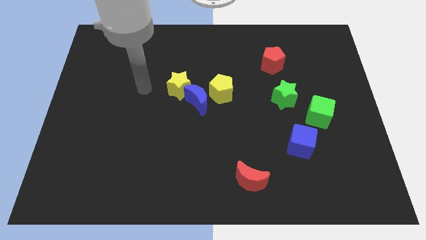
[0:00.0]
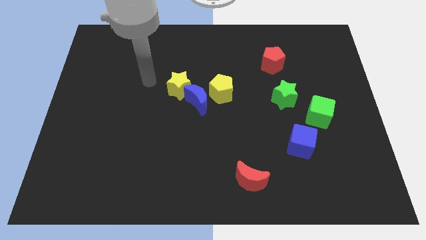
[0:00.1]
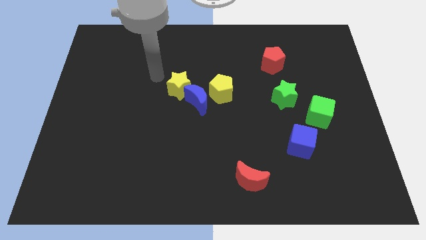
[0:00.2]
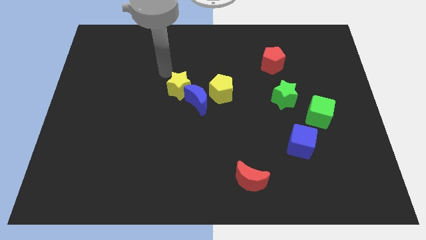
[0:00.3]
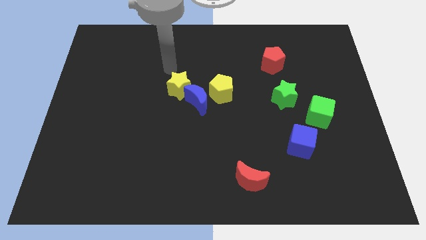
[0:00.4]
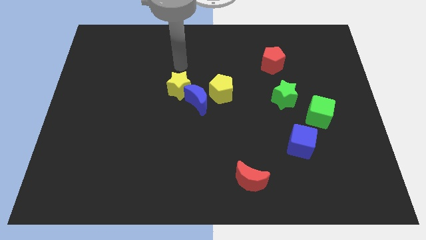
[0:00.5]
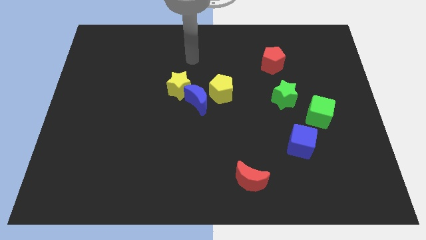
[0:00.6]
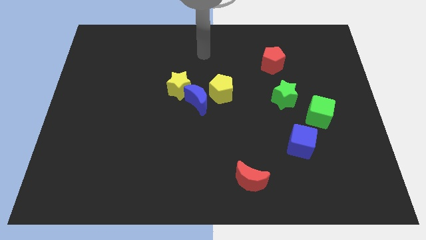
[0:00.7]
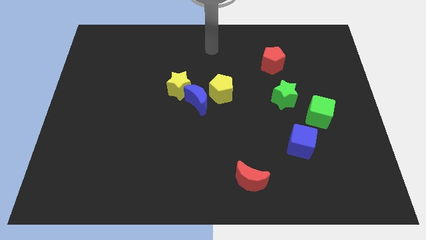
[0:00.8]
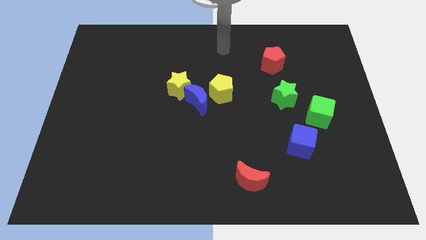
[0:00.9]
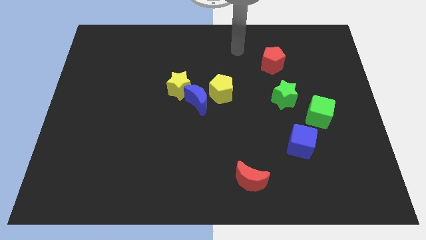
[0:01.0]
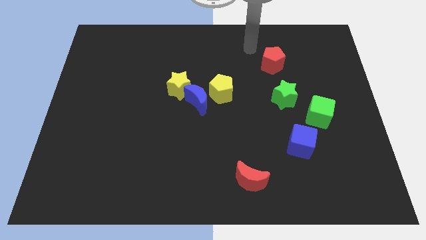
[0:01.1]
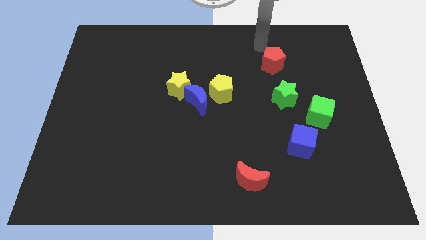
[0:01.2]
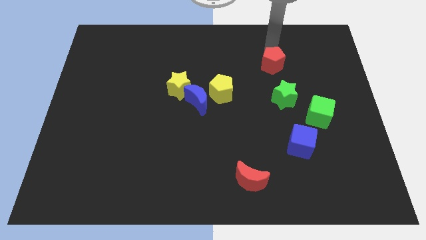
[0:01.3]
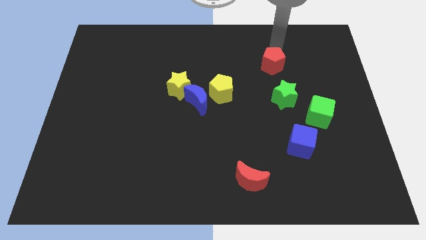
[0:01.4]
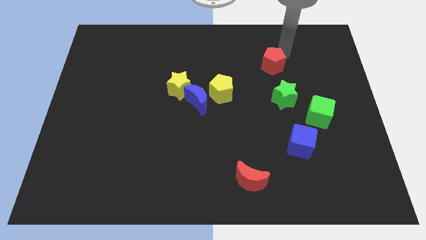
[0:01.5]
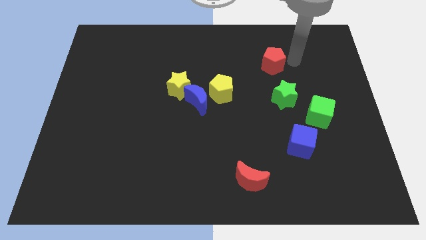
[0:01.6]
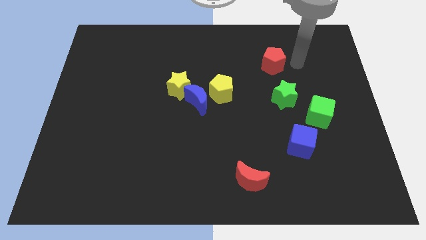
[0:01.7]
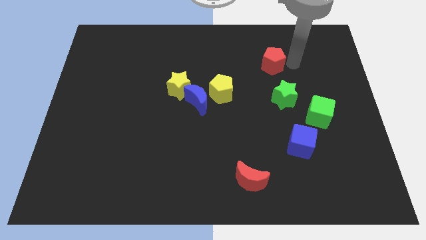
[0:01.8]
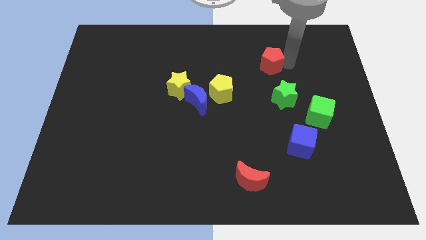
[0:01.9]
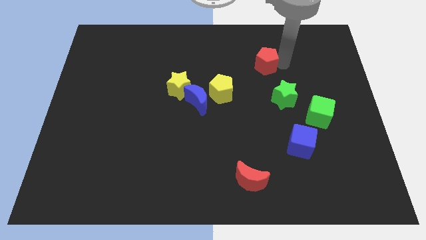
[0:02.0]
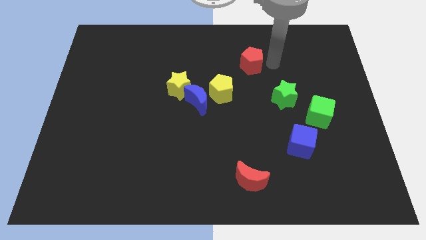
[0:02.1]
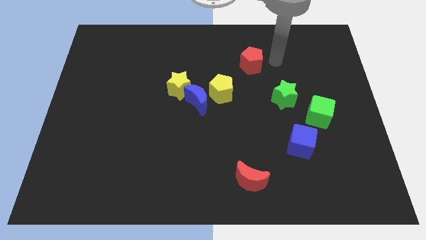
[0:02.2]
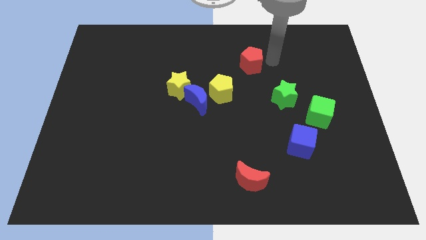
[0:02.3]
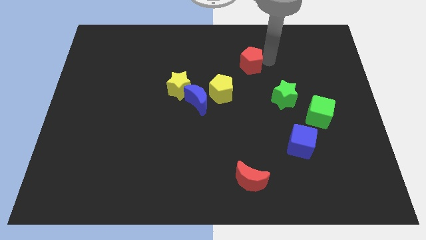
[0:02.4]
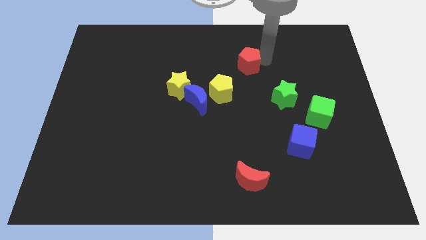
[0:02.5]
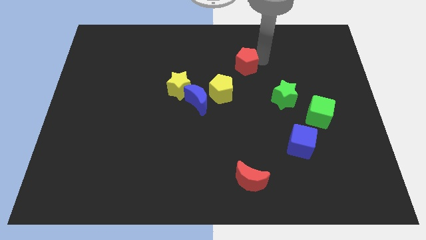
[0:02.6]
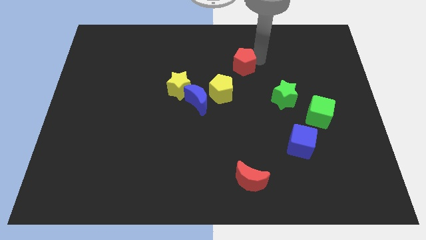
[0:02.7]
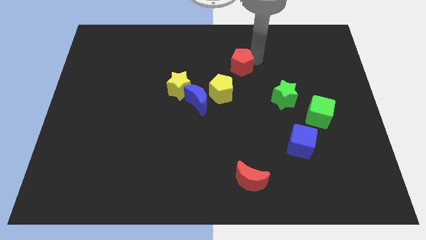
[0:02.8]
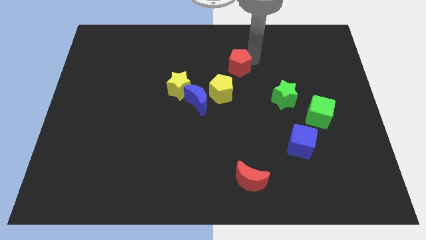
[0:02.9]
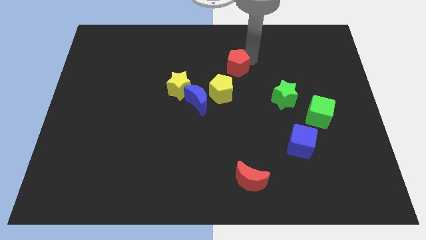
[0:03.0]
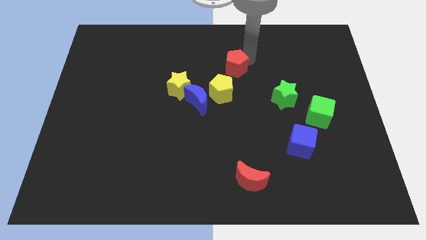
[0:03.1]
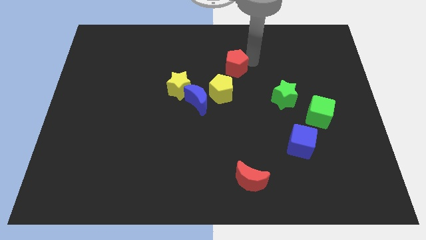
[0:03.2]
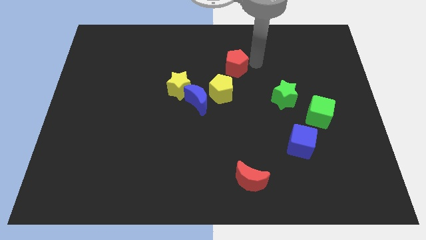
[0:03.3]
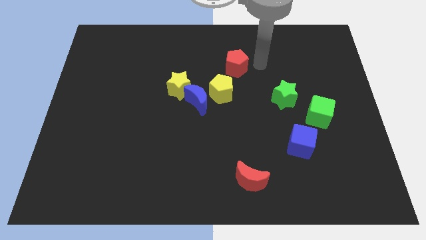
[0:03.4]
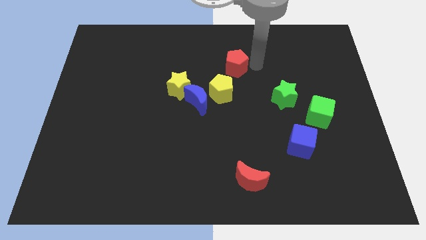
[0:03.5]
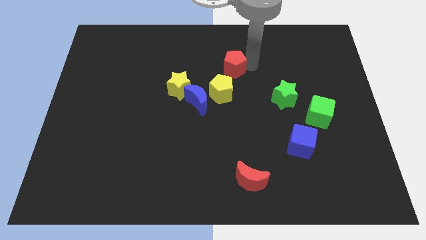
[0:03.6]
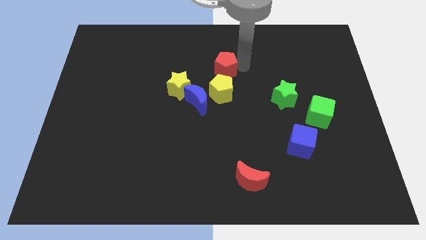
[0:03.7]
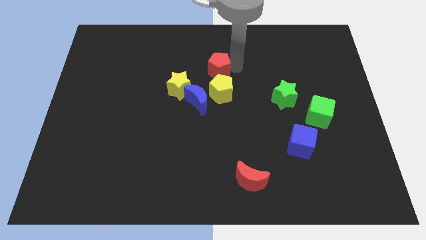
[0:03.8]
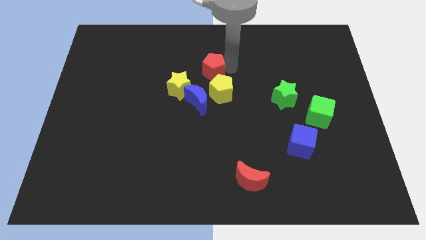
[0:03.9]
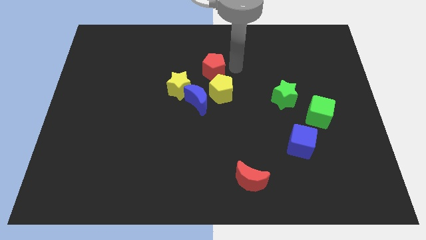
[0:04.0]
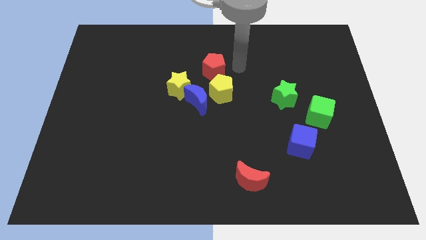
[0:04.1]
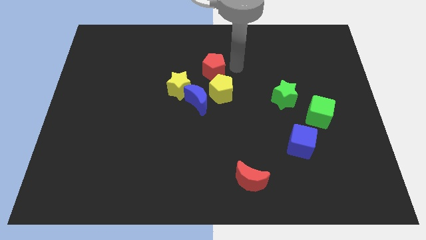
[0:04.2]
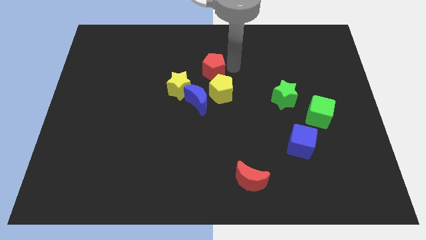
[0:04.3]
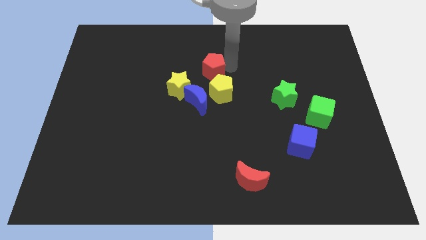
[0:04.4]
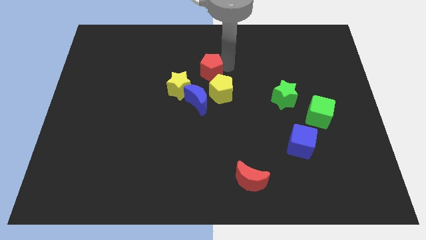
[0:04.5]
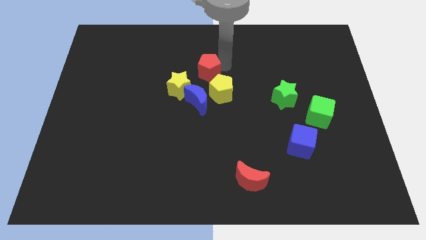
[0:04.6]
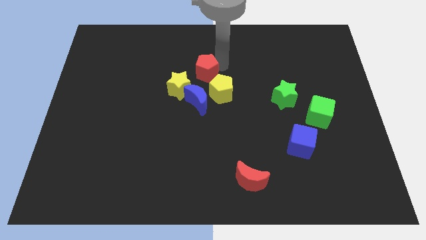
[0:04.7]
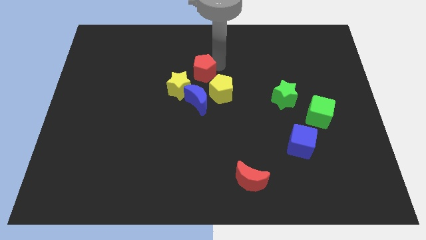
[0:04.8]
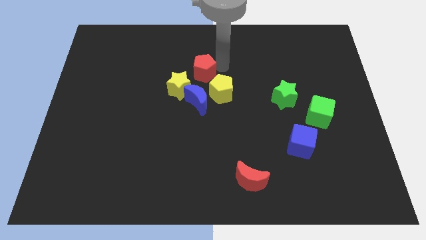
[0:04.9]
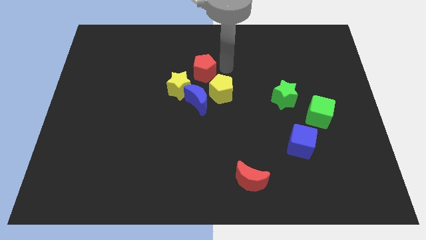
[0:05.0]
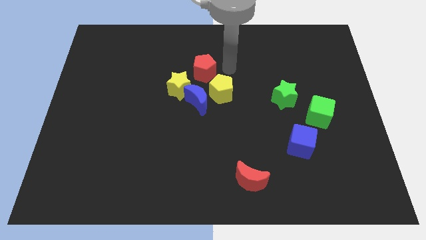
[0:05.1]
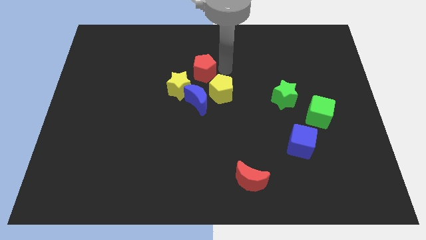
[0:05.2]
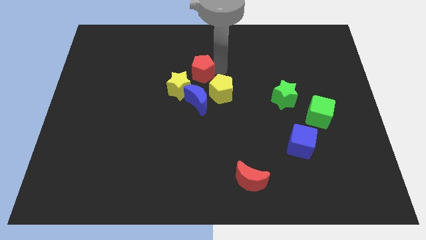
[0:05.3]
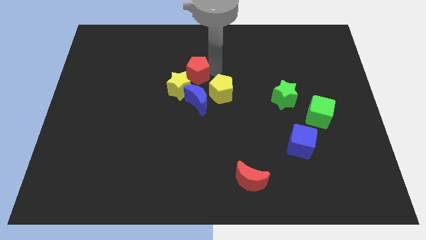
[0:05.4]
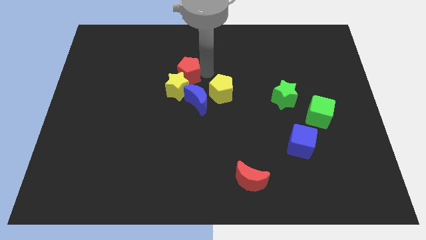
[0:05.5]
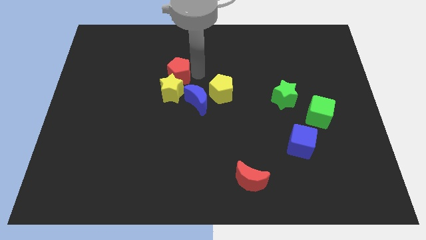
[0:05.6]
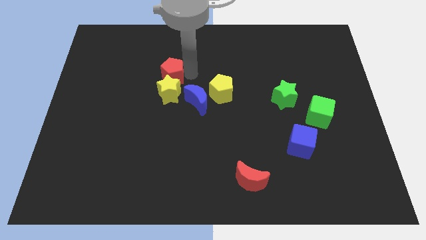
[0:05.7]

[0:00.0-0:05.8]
slide the red pentagon to the top left side of the yellow star
